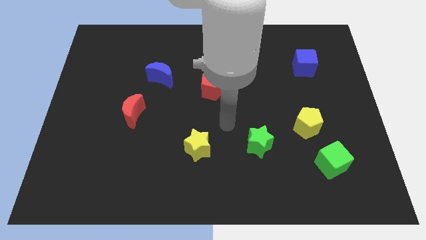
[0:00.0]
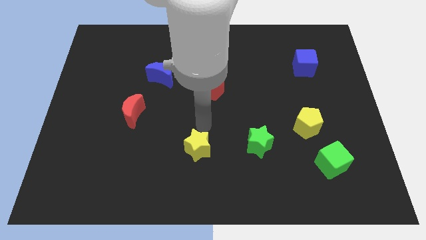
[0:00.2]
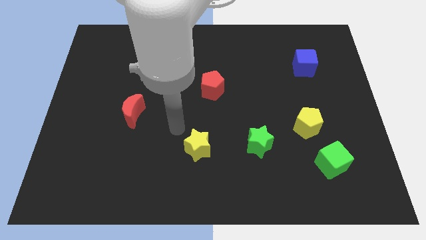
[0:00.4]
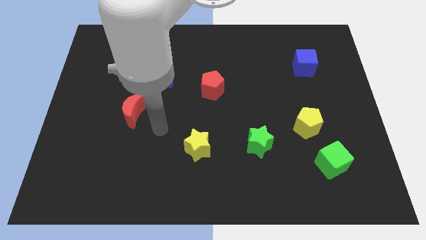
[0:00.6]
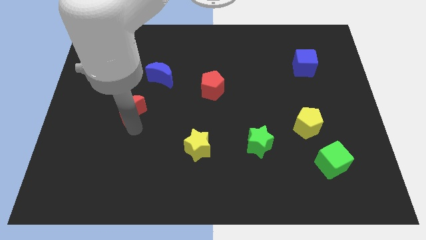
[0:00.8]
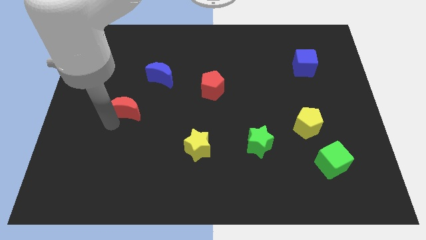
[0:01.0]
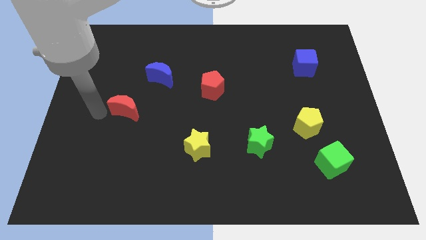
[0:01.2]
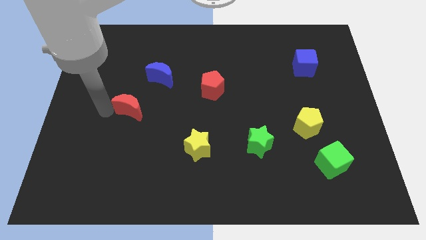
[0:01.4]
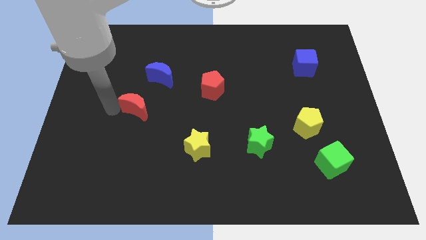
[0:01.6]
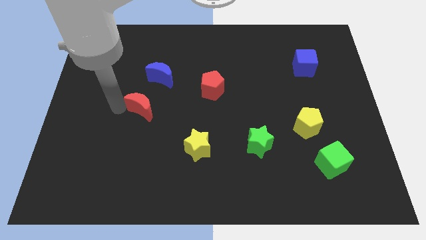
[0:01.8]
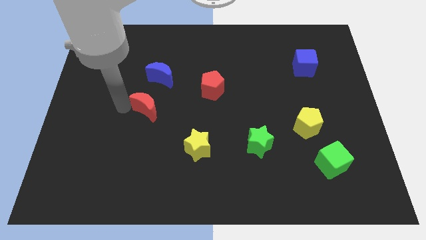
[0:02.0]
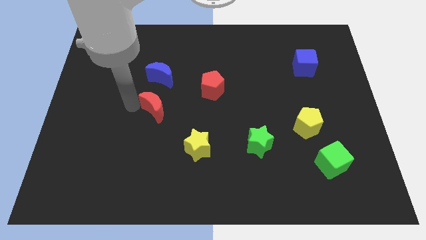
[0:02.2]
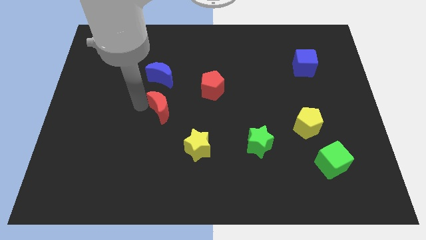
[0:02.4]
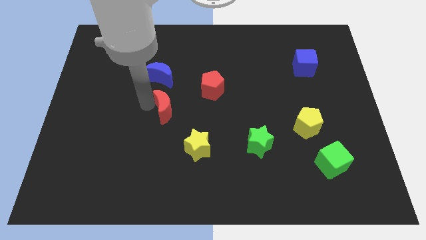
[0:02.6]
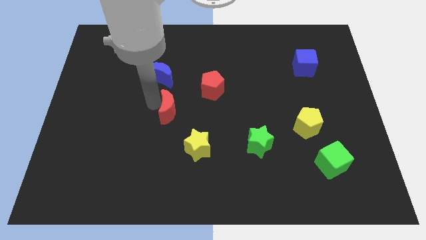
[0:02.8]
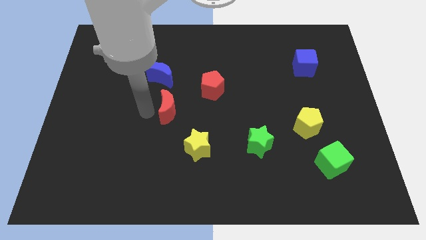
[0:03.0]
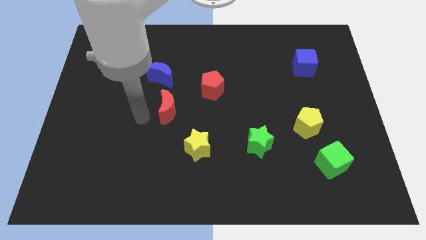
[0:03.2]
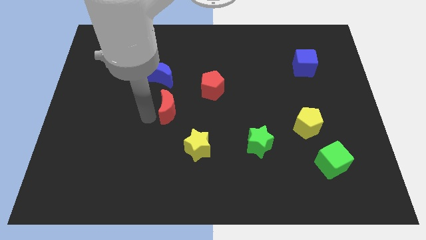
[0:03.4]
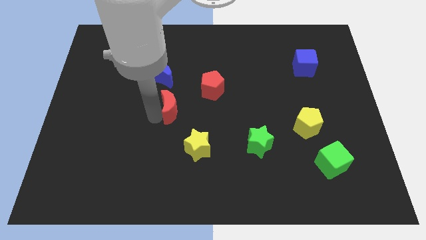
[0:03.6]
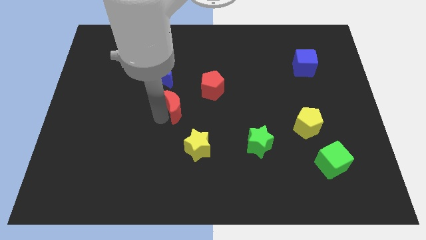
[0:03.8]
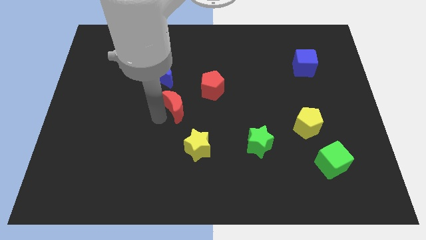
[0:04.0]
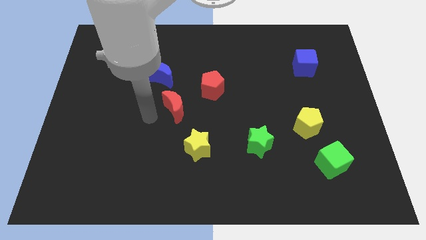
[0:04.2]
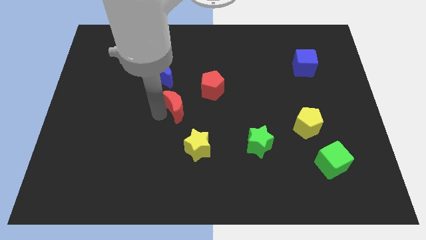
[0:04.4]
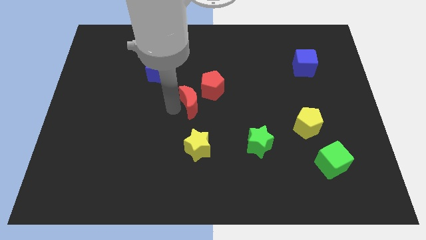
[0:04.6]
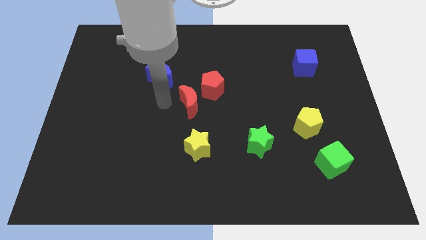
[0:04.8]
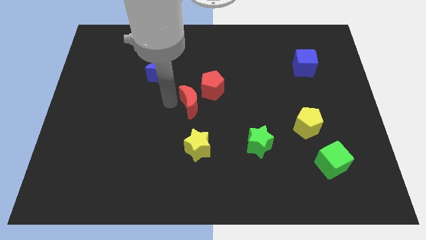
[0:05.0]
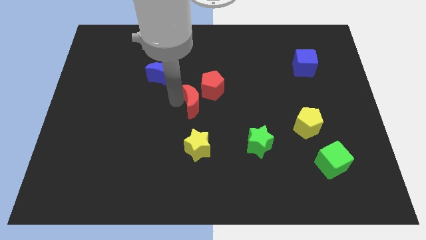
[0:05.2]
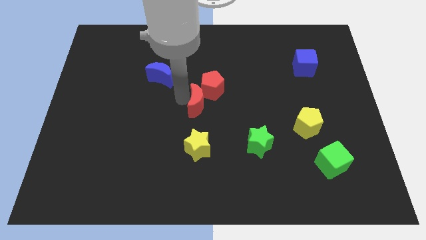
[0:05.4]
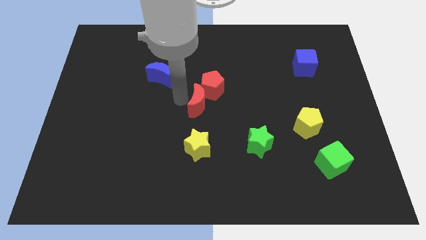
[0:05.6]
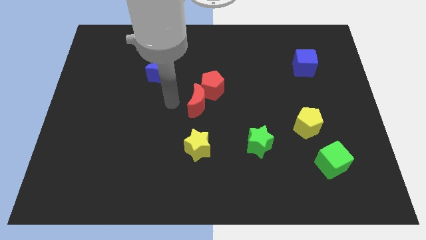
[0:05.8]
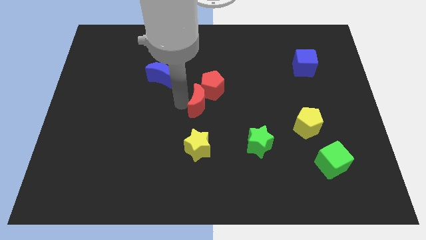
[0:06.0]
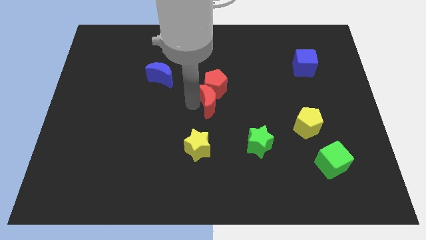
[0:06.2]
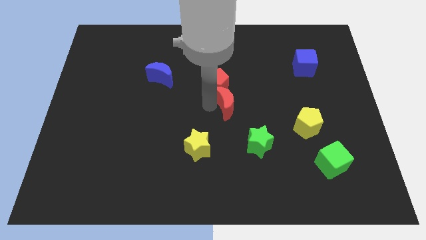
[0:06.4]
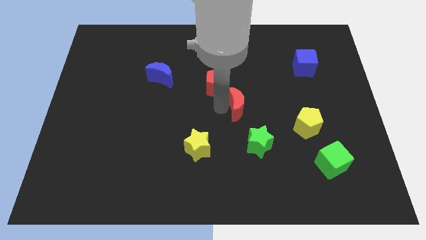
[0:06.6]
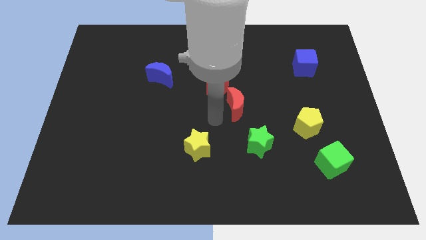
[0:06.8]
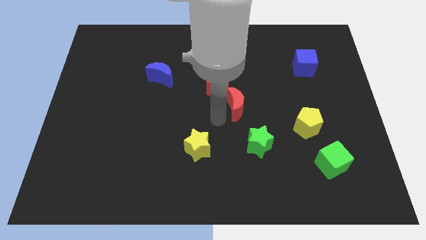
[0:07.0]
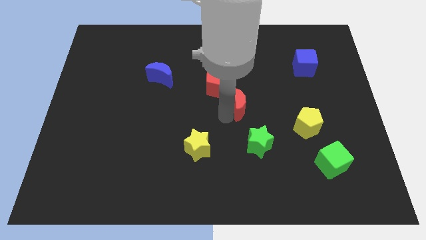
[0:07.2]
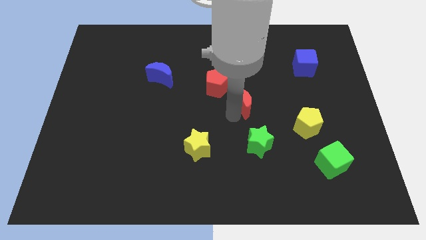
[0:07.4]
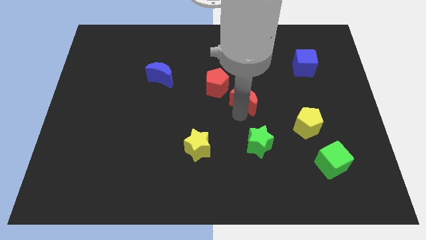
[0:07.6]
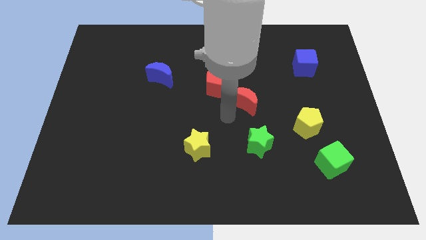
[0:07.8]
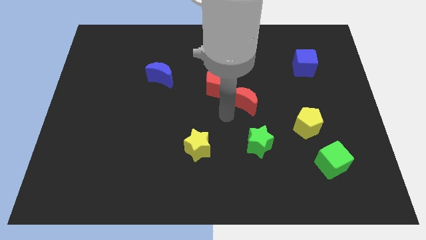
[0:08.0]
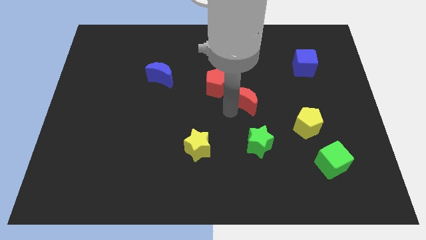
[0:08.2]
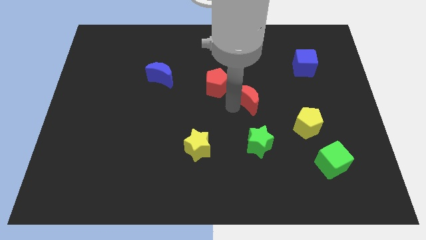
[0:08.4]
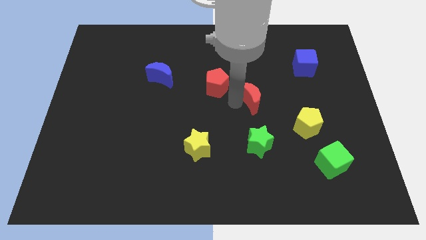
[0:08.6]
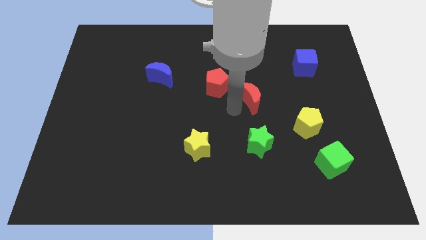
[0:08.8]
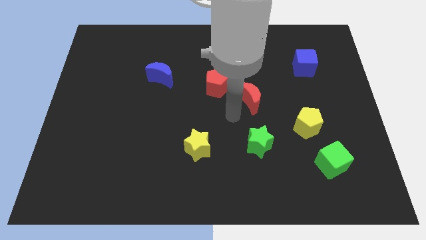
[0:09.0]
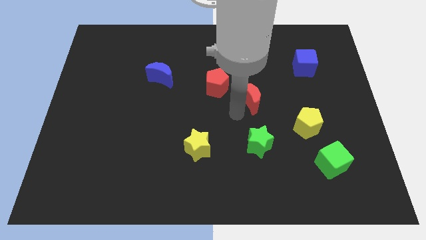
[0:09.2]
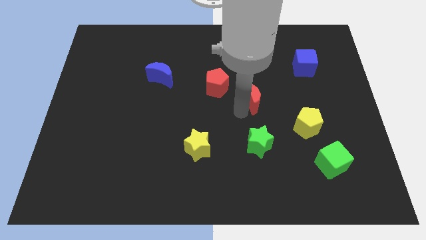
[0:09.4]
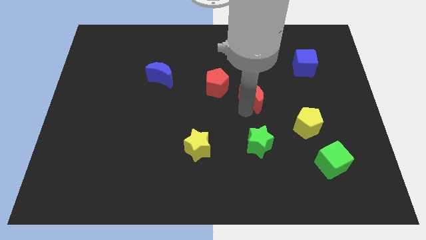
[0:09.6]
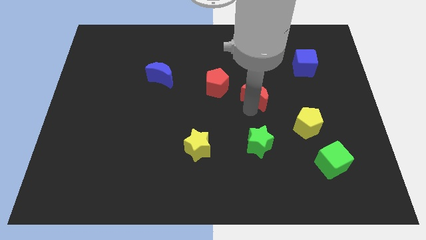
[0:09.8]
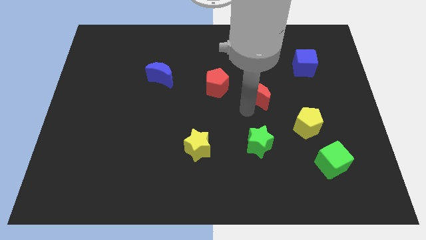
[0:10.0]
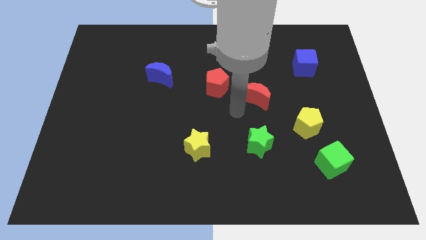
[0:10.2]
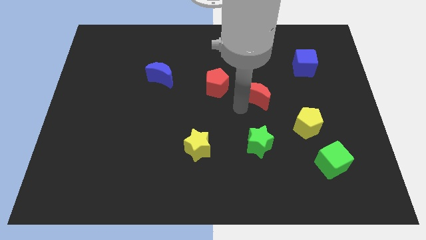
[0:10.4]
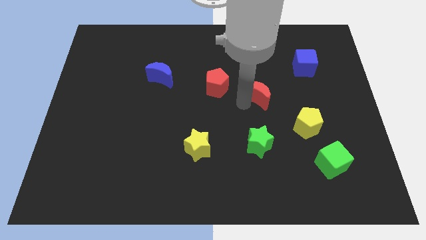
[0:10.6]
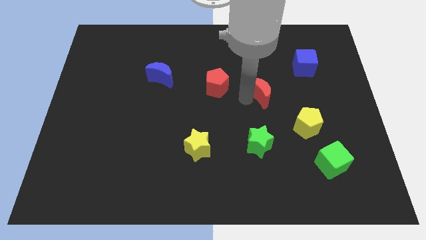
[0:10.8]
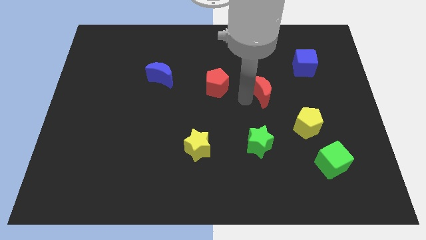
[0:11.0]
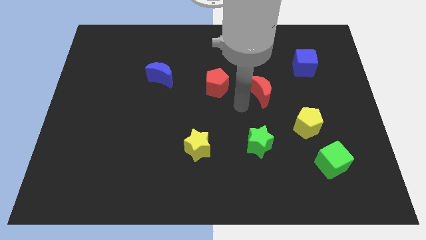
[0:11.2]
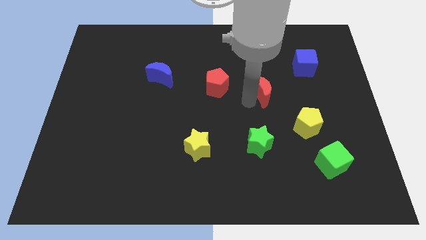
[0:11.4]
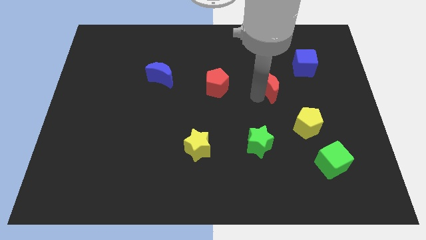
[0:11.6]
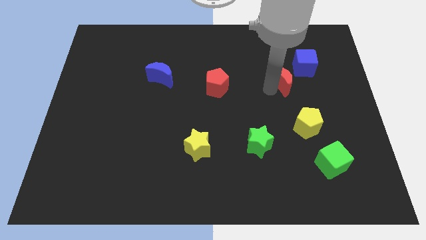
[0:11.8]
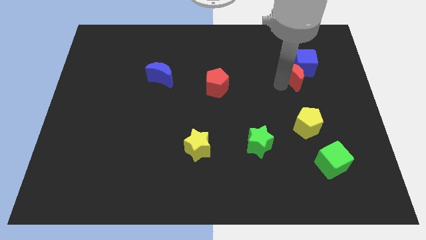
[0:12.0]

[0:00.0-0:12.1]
slide the red moon towards the blue cube

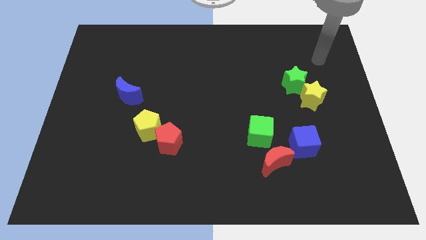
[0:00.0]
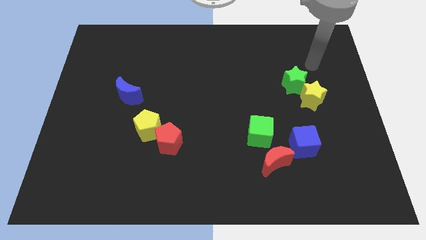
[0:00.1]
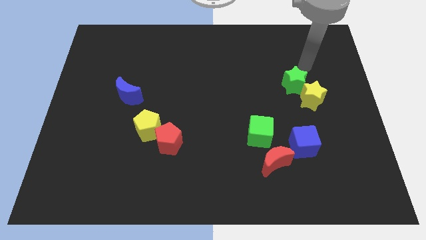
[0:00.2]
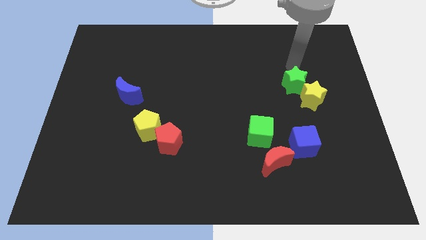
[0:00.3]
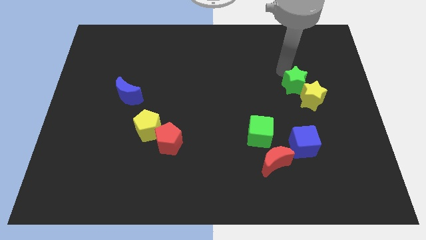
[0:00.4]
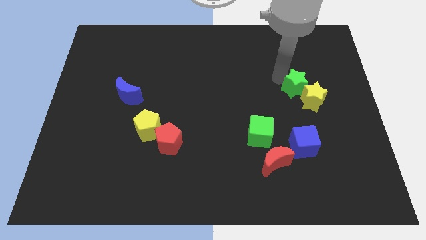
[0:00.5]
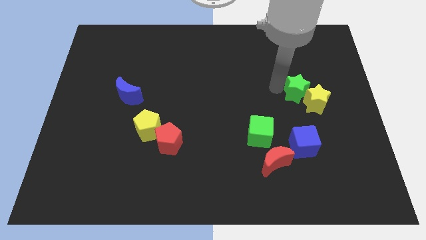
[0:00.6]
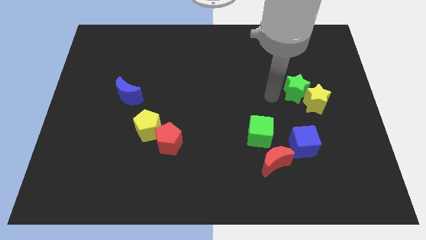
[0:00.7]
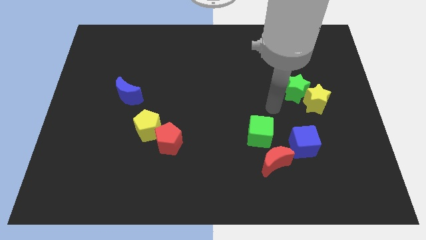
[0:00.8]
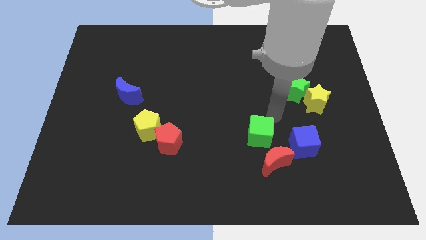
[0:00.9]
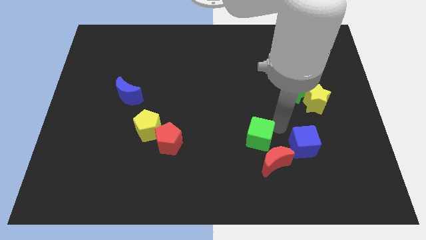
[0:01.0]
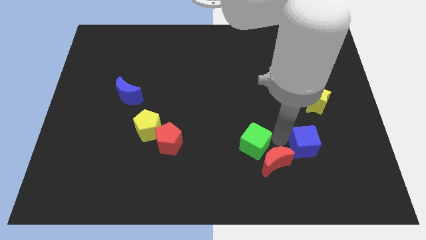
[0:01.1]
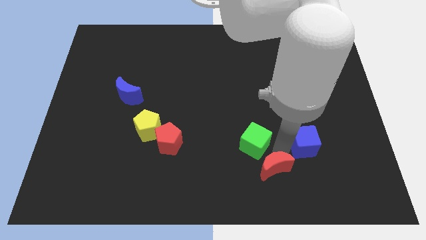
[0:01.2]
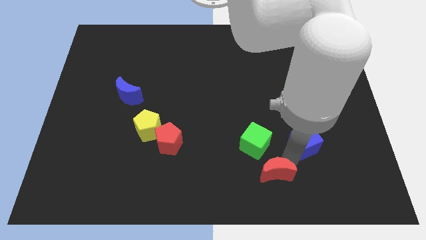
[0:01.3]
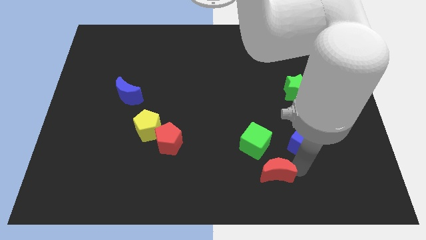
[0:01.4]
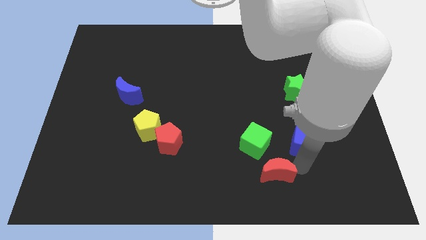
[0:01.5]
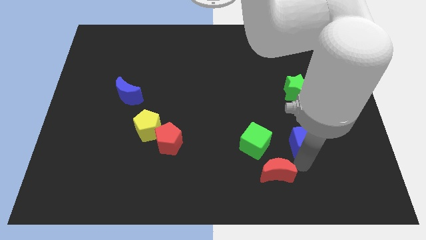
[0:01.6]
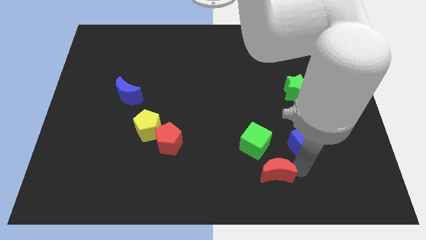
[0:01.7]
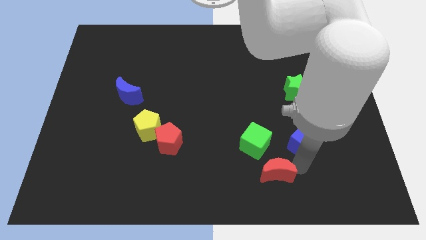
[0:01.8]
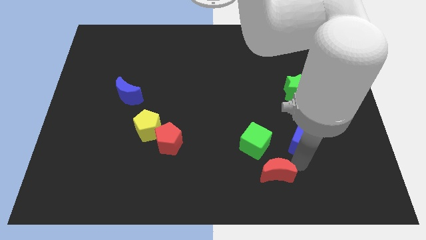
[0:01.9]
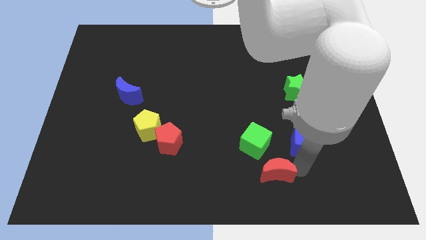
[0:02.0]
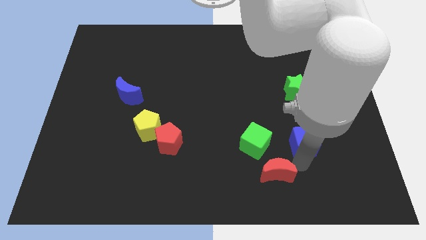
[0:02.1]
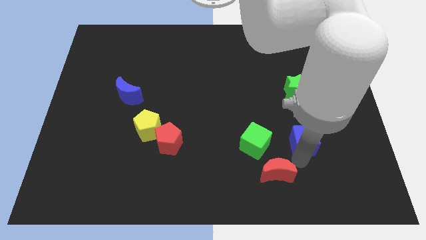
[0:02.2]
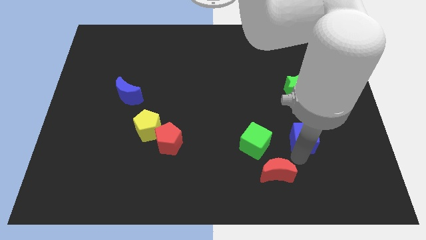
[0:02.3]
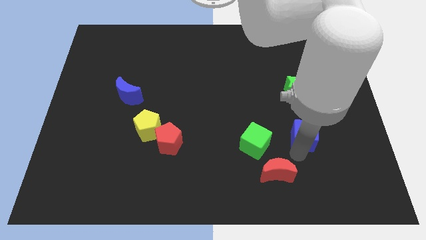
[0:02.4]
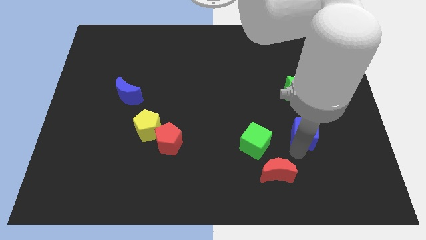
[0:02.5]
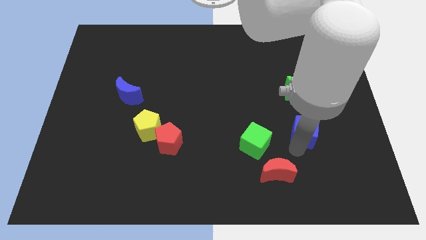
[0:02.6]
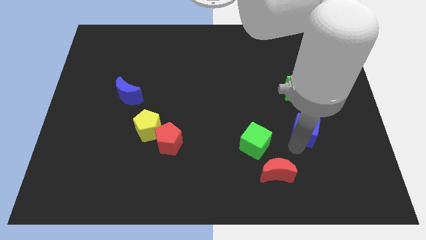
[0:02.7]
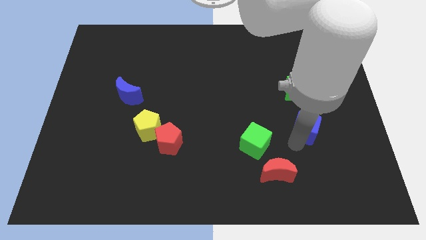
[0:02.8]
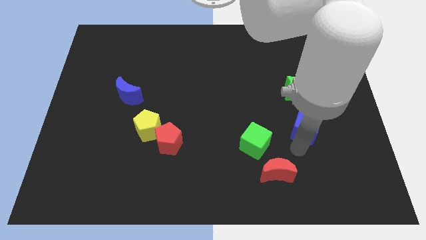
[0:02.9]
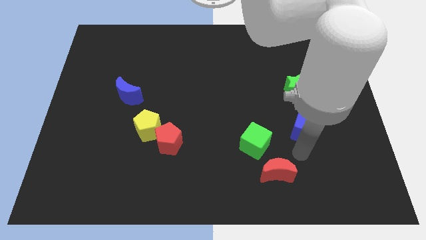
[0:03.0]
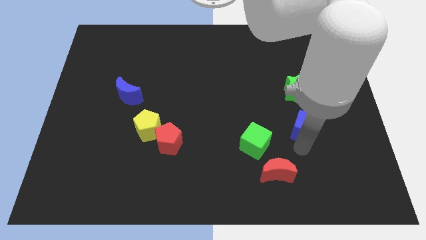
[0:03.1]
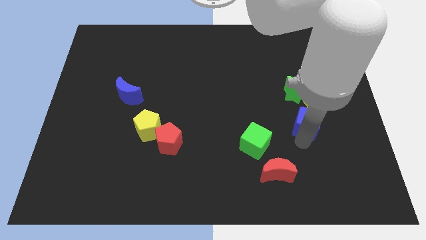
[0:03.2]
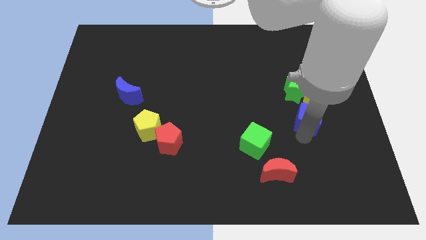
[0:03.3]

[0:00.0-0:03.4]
move the blue cube close to the yellow star
